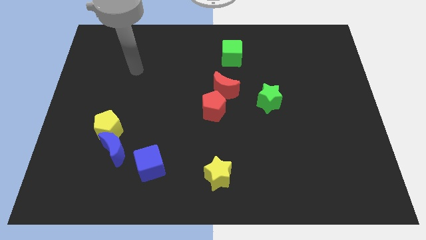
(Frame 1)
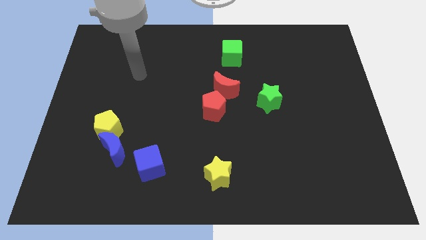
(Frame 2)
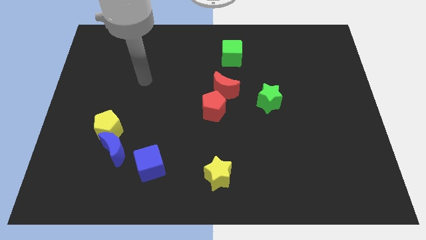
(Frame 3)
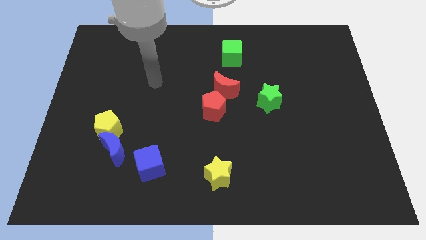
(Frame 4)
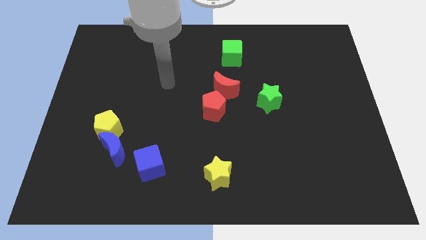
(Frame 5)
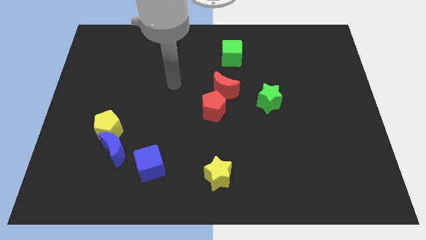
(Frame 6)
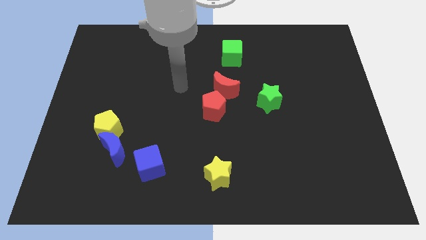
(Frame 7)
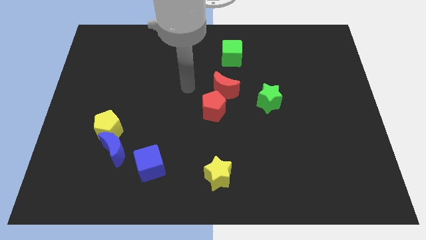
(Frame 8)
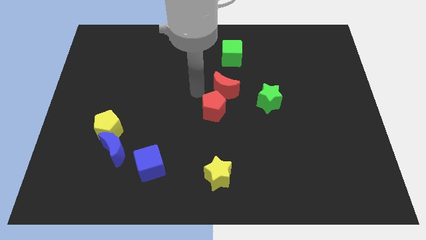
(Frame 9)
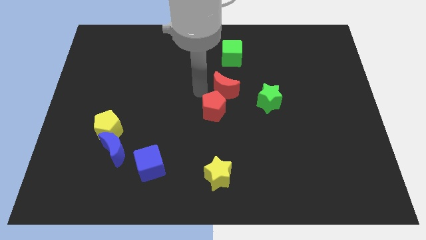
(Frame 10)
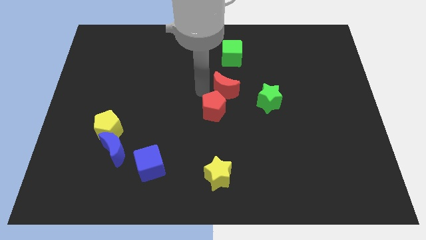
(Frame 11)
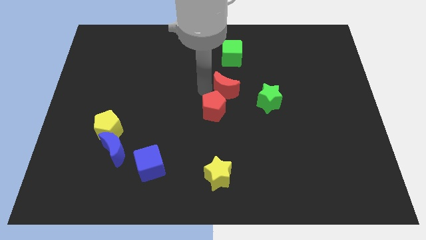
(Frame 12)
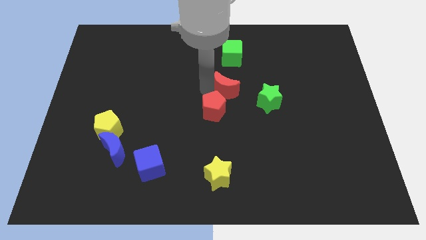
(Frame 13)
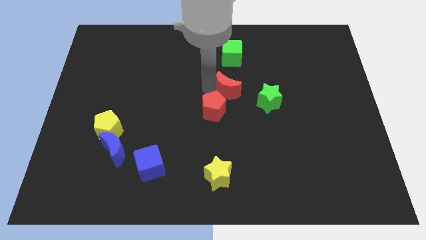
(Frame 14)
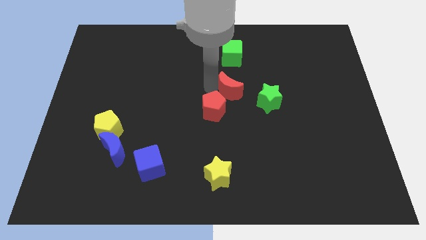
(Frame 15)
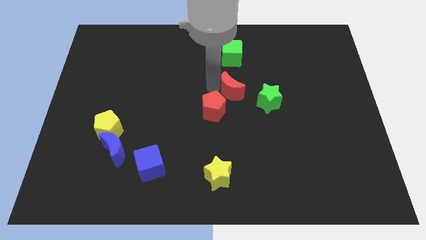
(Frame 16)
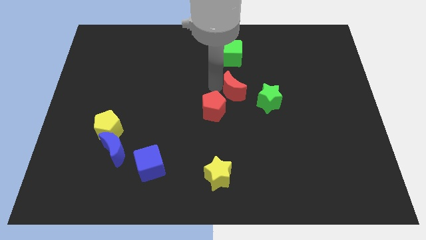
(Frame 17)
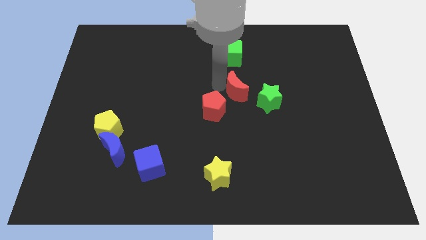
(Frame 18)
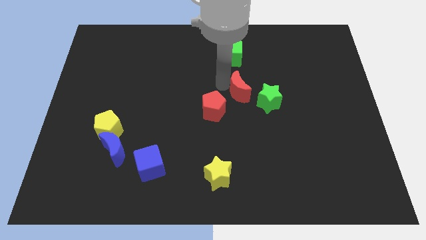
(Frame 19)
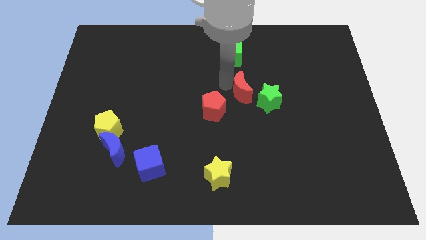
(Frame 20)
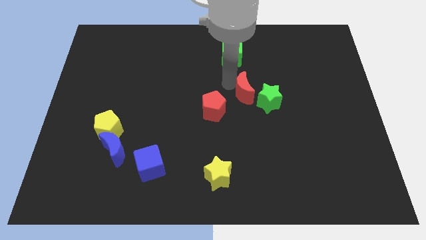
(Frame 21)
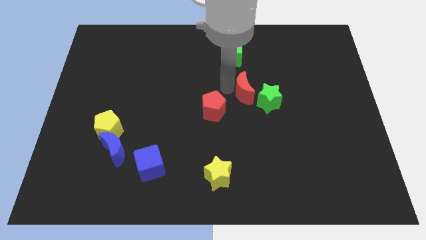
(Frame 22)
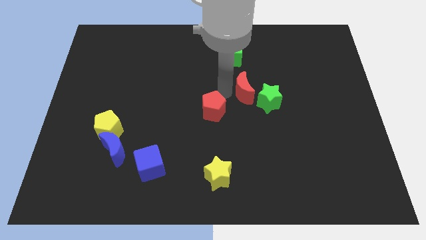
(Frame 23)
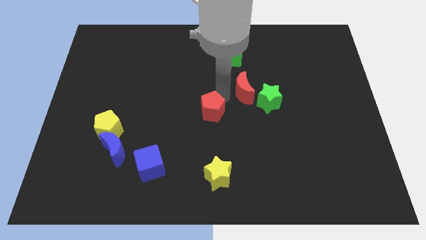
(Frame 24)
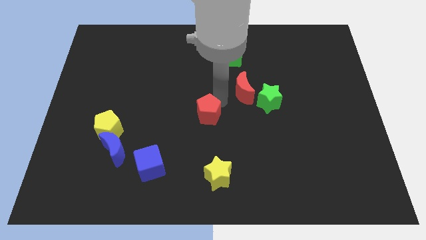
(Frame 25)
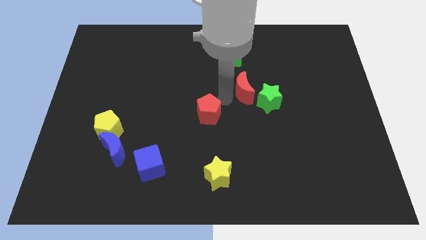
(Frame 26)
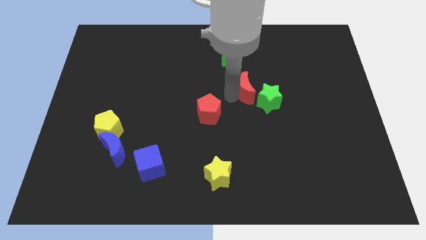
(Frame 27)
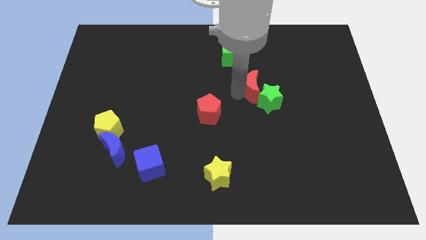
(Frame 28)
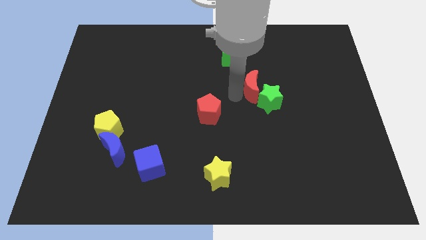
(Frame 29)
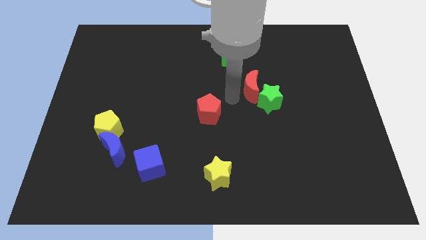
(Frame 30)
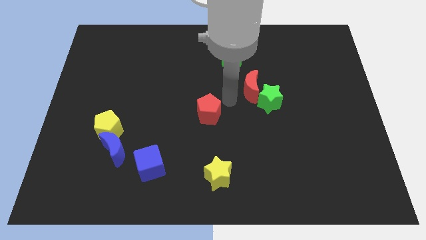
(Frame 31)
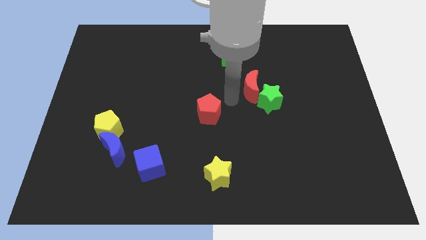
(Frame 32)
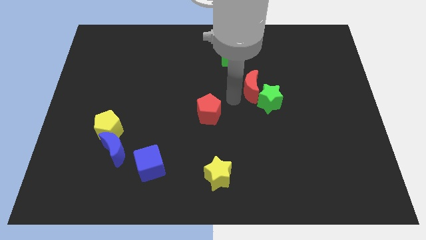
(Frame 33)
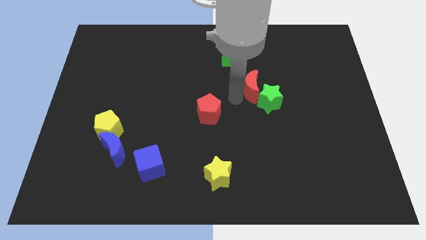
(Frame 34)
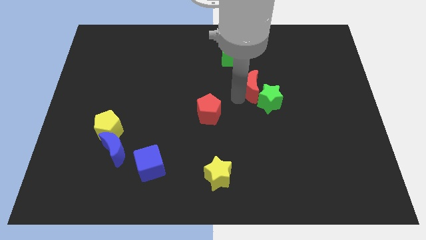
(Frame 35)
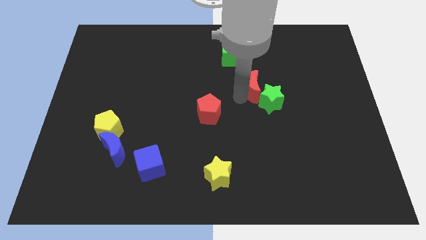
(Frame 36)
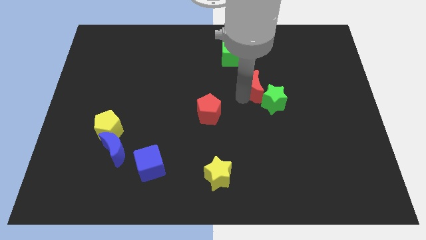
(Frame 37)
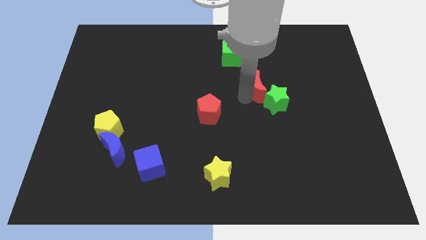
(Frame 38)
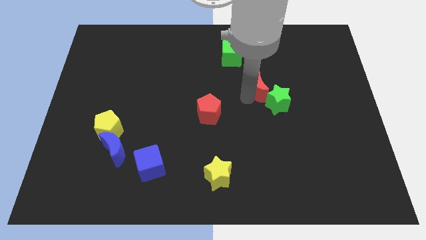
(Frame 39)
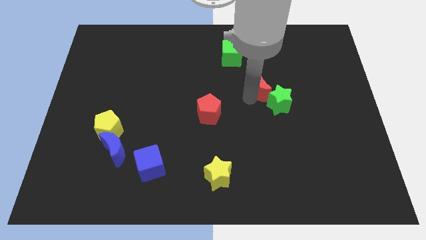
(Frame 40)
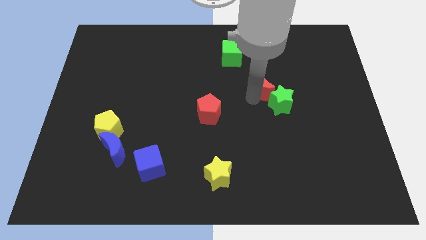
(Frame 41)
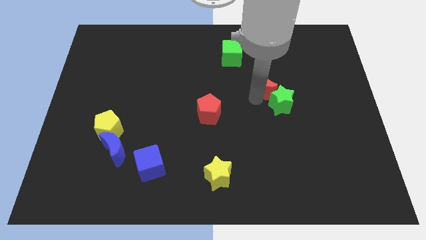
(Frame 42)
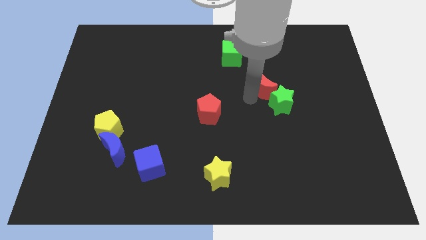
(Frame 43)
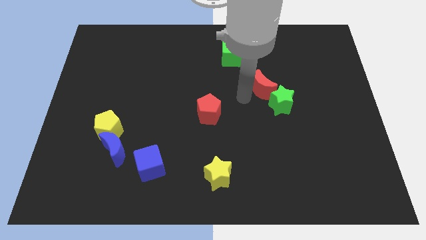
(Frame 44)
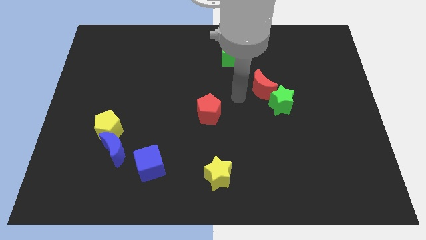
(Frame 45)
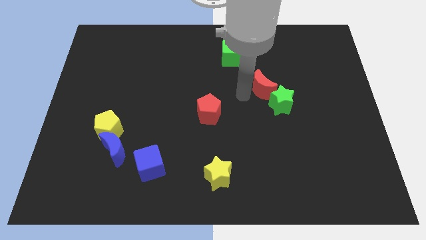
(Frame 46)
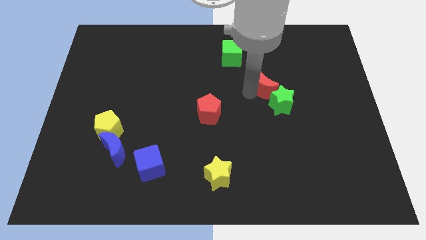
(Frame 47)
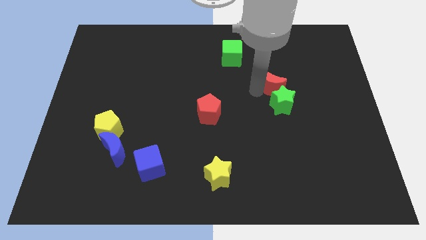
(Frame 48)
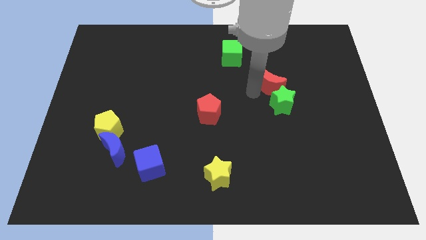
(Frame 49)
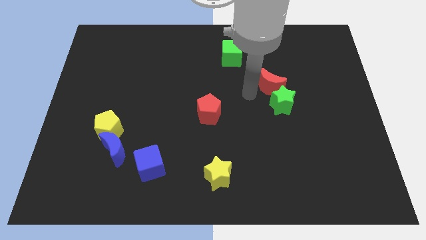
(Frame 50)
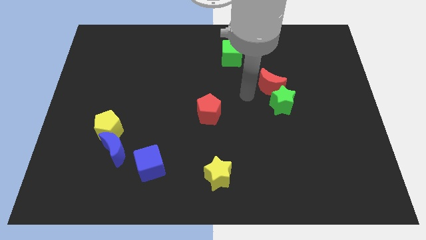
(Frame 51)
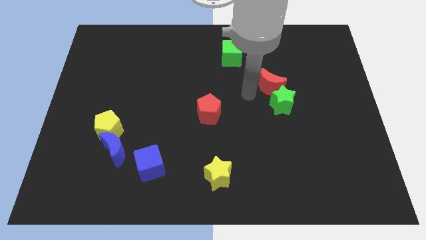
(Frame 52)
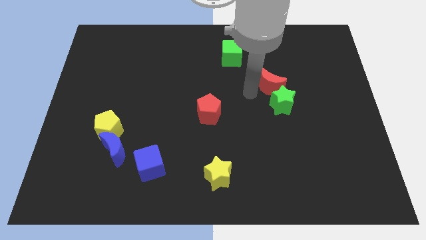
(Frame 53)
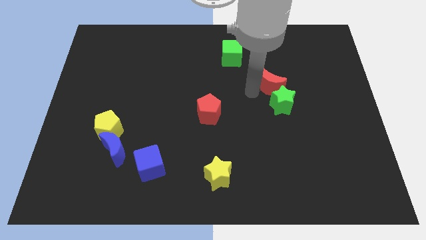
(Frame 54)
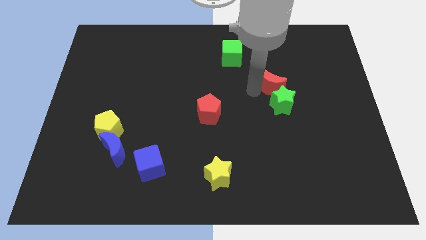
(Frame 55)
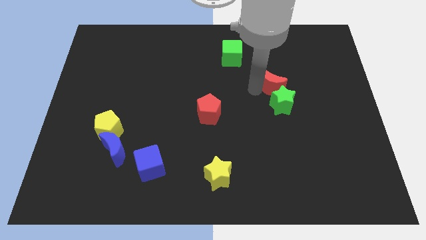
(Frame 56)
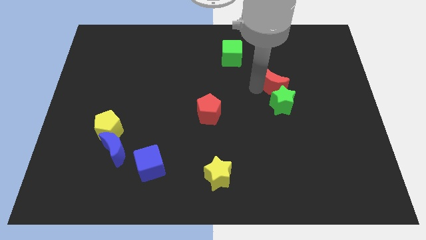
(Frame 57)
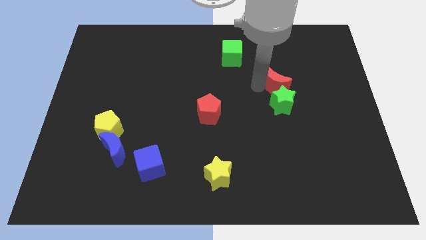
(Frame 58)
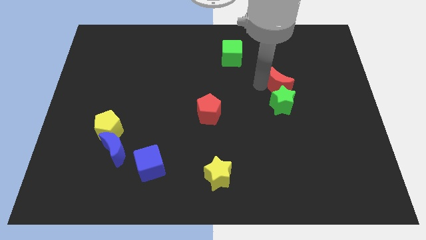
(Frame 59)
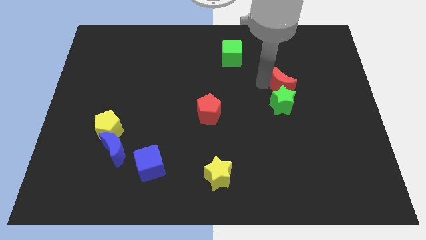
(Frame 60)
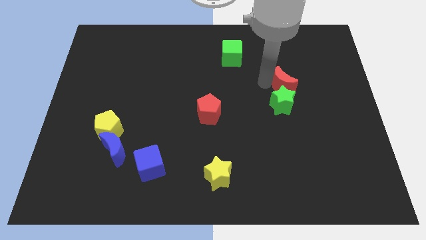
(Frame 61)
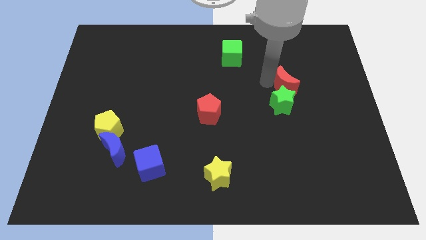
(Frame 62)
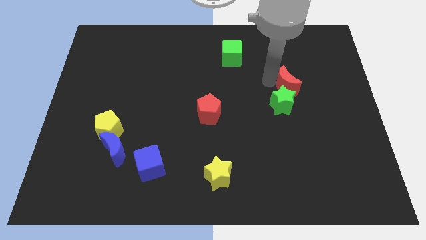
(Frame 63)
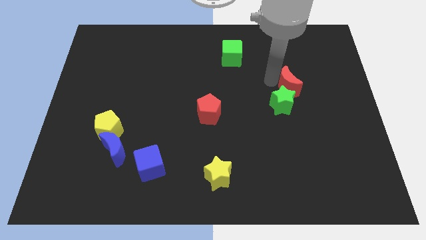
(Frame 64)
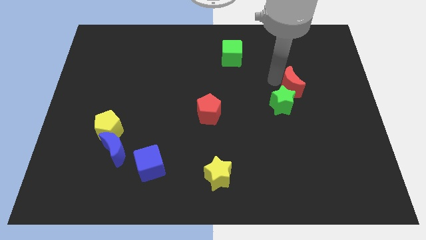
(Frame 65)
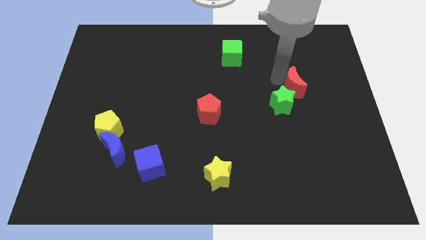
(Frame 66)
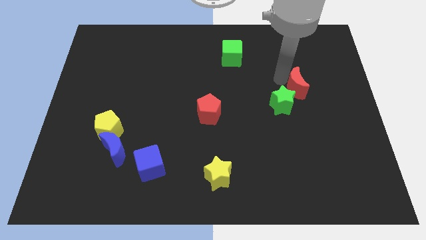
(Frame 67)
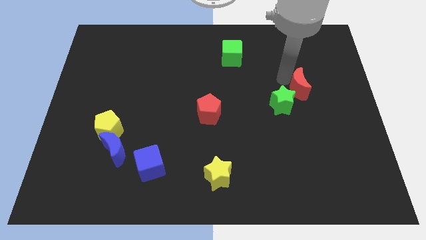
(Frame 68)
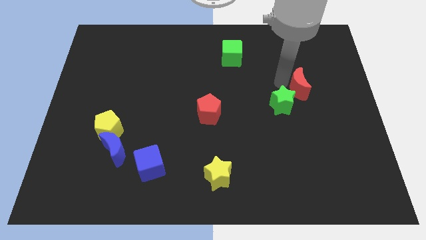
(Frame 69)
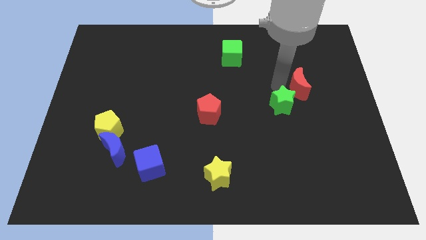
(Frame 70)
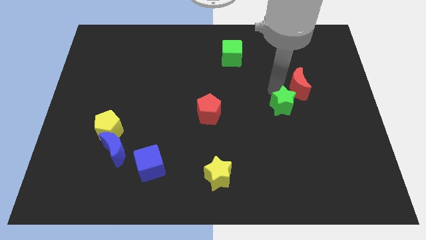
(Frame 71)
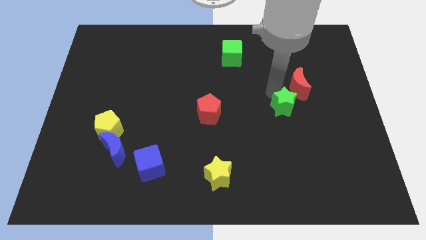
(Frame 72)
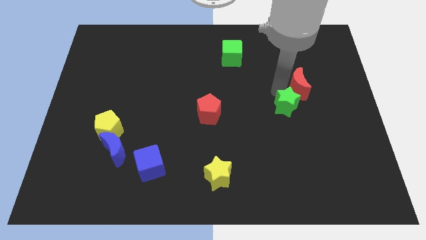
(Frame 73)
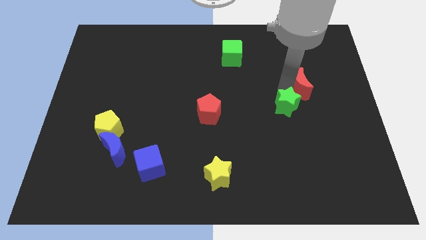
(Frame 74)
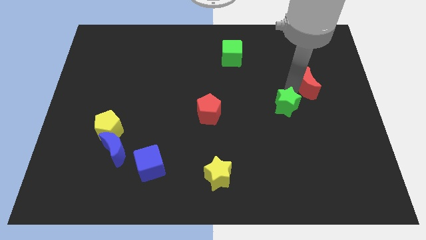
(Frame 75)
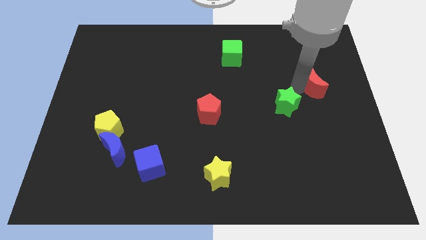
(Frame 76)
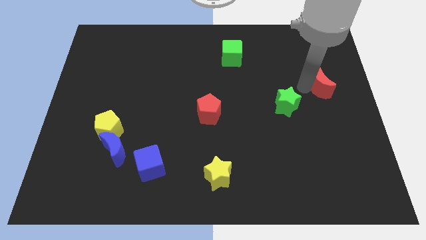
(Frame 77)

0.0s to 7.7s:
push the red moon to the center right
